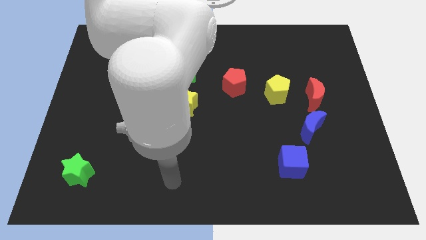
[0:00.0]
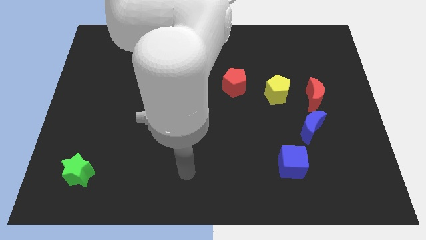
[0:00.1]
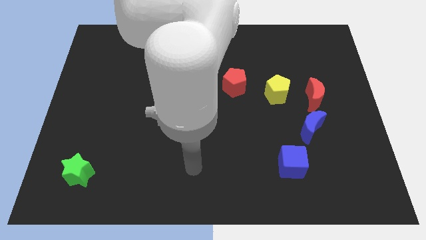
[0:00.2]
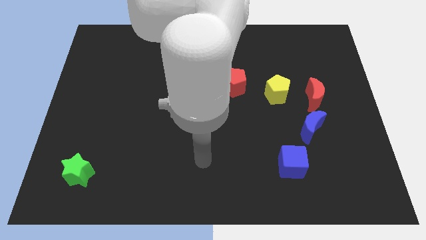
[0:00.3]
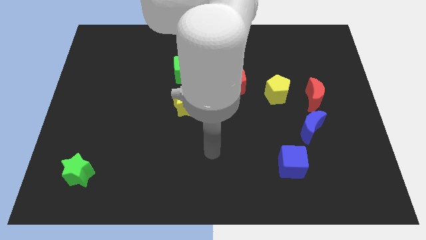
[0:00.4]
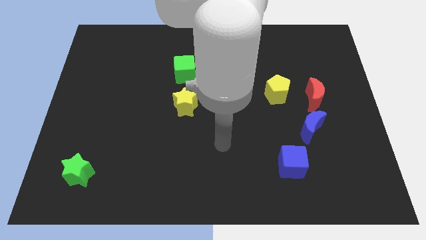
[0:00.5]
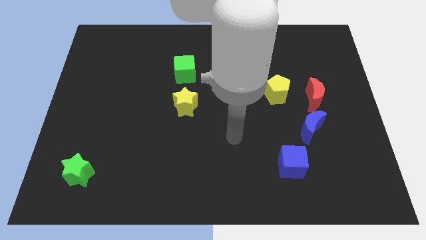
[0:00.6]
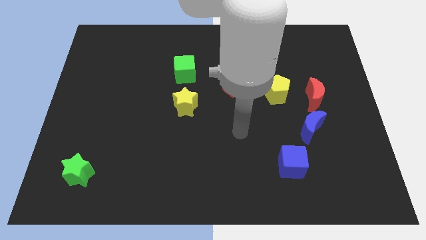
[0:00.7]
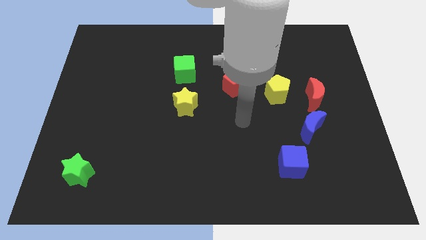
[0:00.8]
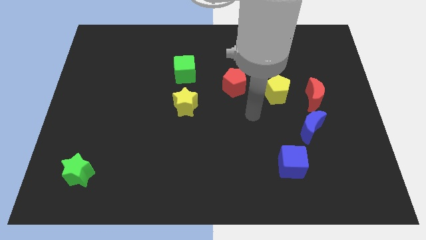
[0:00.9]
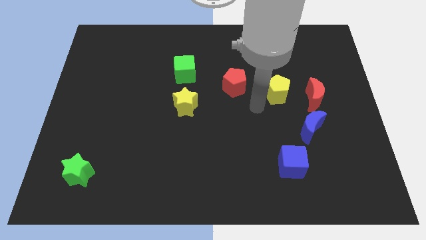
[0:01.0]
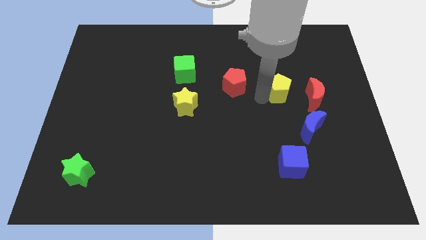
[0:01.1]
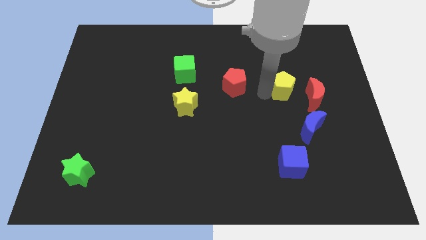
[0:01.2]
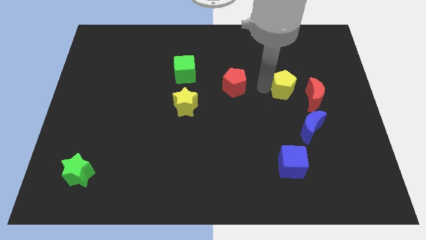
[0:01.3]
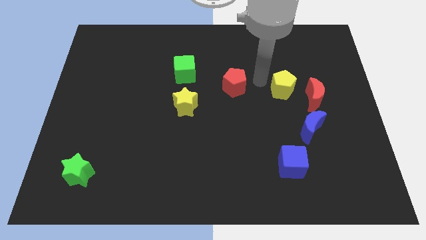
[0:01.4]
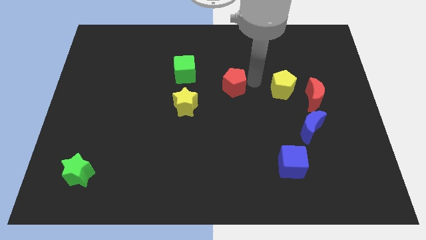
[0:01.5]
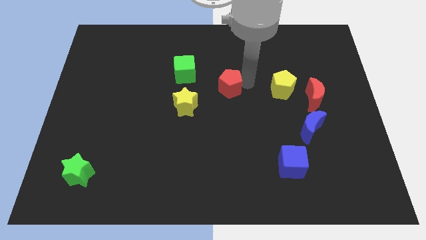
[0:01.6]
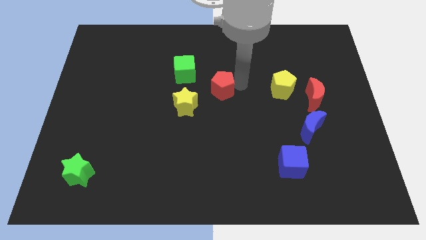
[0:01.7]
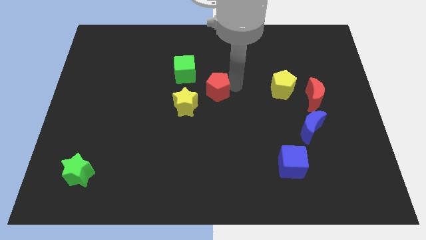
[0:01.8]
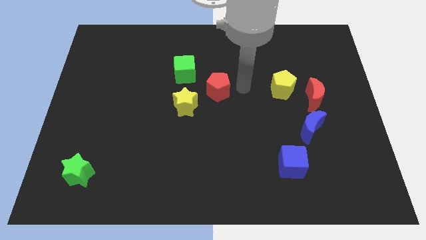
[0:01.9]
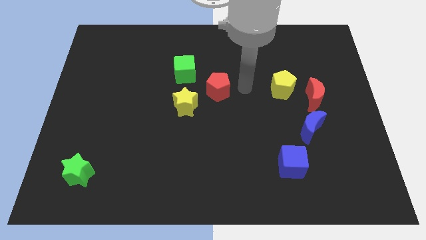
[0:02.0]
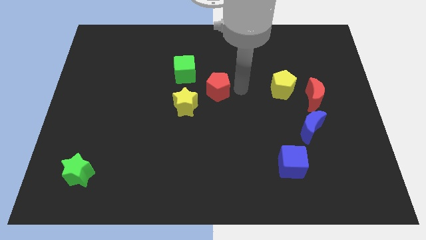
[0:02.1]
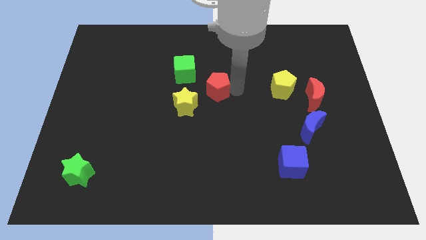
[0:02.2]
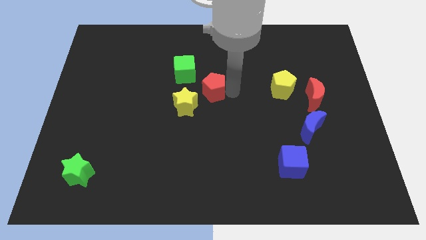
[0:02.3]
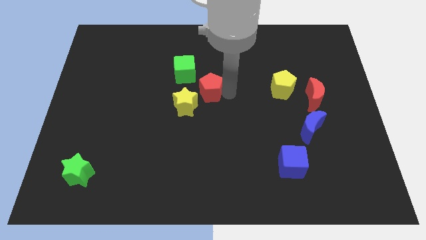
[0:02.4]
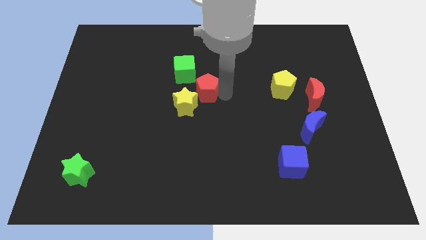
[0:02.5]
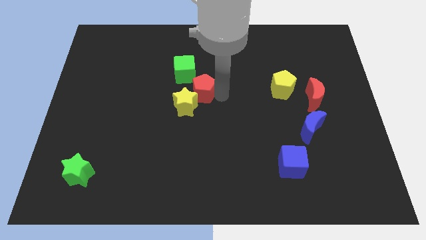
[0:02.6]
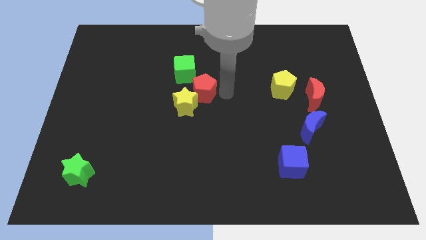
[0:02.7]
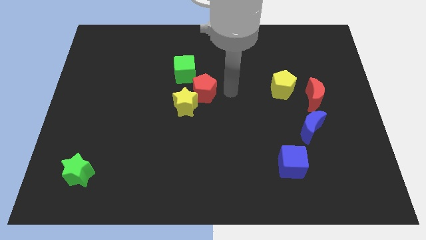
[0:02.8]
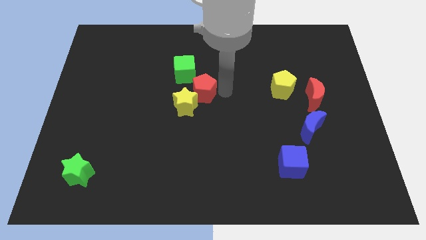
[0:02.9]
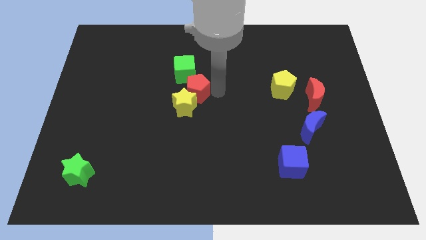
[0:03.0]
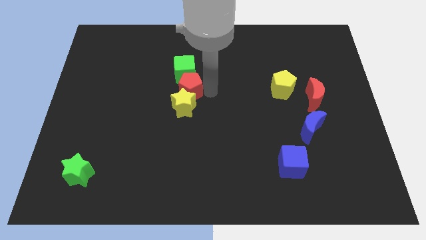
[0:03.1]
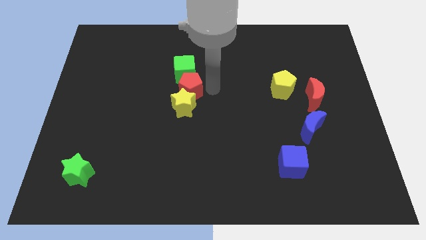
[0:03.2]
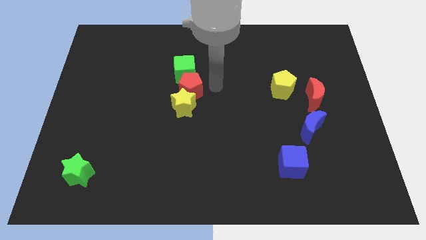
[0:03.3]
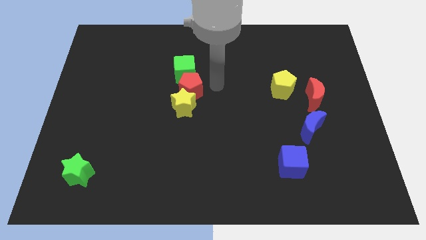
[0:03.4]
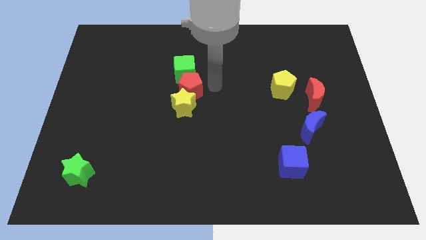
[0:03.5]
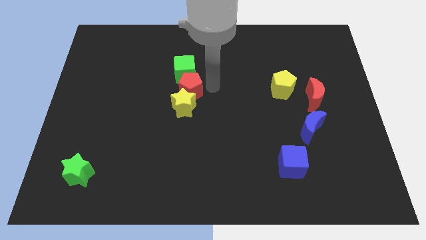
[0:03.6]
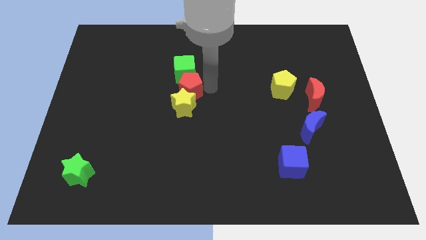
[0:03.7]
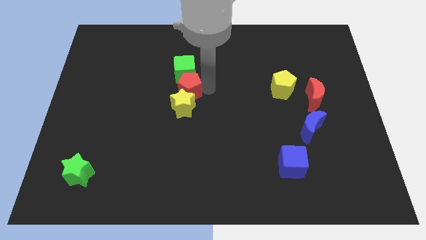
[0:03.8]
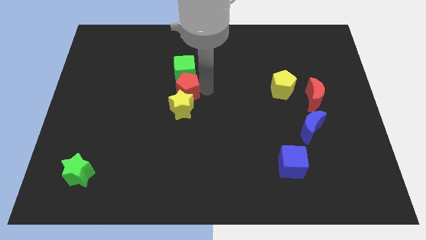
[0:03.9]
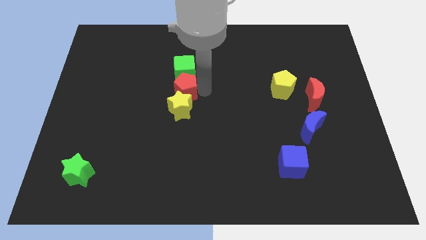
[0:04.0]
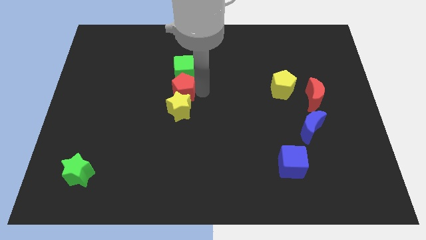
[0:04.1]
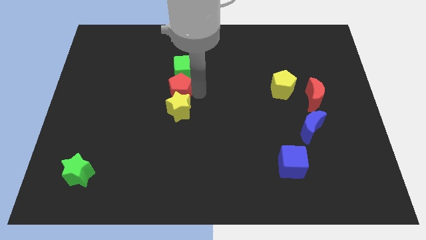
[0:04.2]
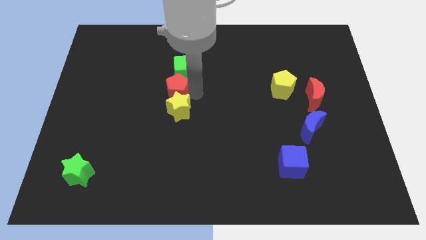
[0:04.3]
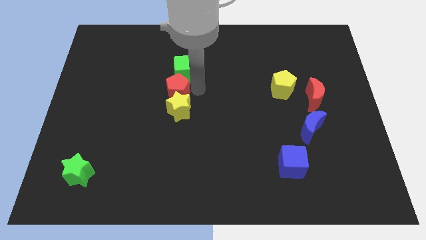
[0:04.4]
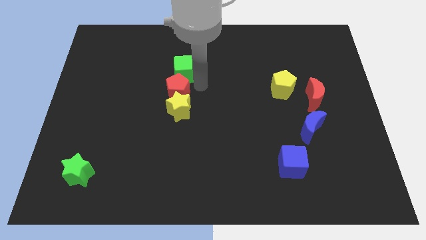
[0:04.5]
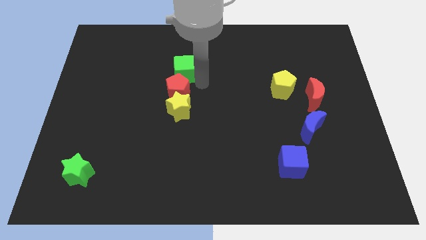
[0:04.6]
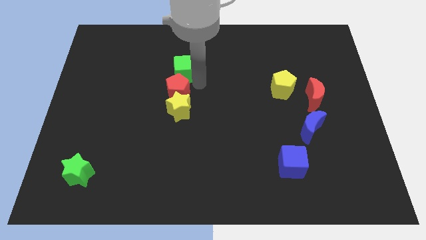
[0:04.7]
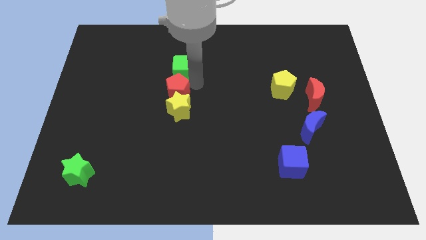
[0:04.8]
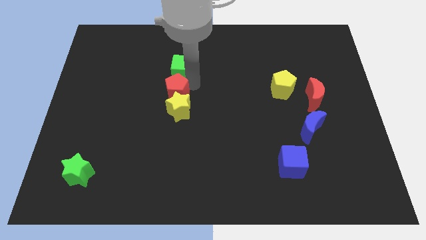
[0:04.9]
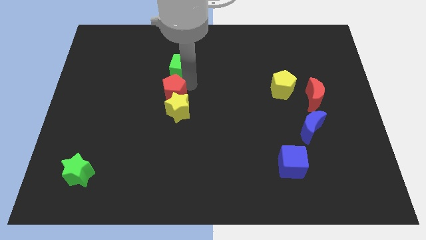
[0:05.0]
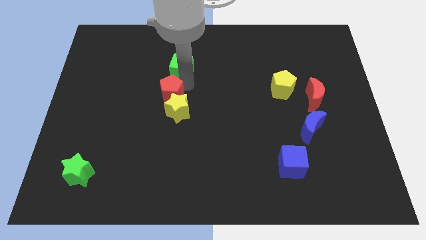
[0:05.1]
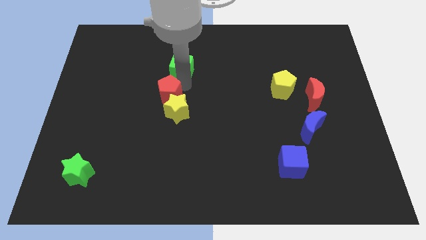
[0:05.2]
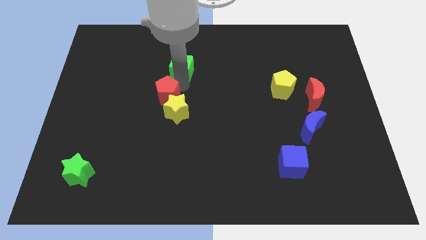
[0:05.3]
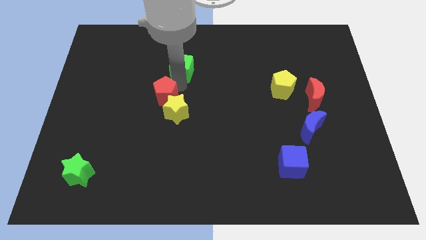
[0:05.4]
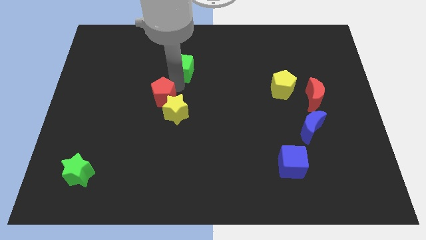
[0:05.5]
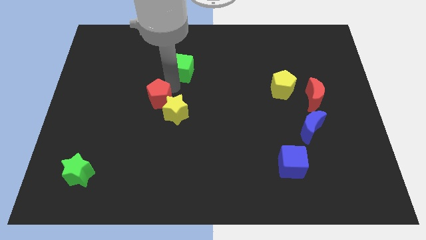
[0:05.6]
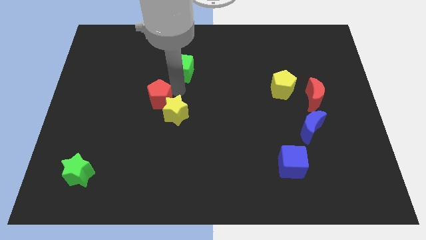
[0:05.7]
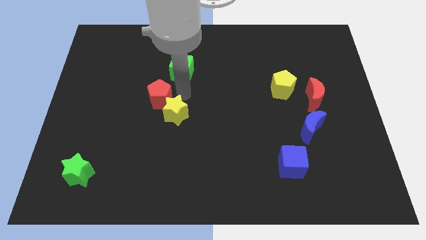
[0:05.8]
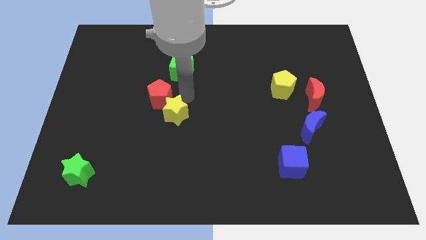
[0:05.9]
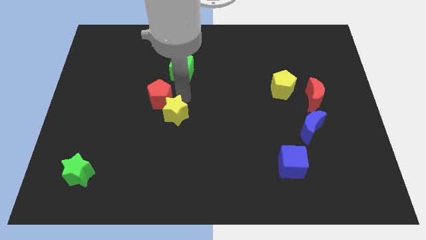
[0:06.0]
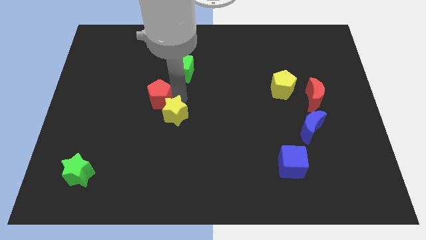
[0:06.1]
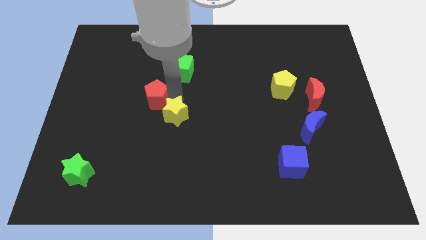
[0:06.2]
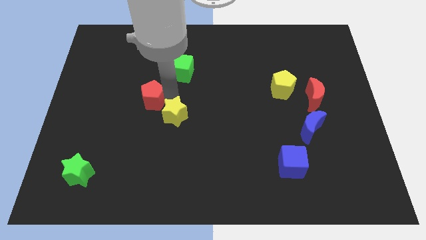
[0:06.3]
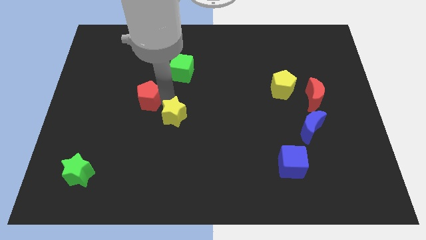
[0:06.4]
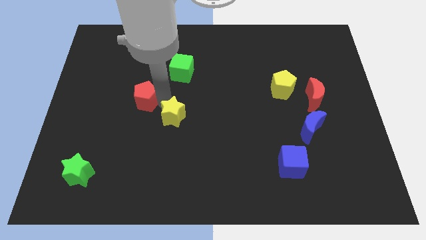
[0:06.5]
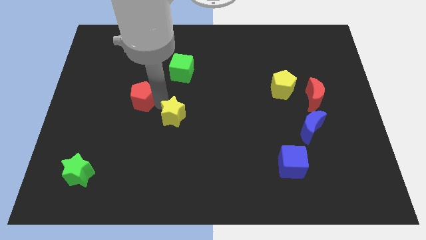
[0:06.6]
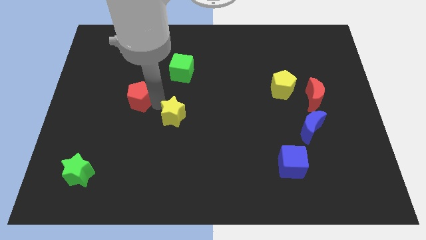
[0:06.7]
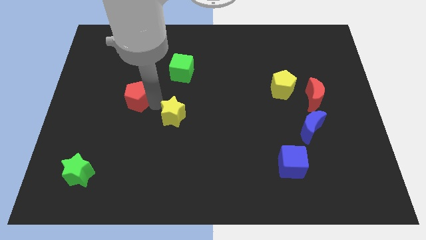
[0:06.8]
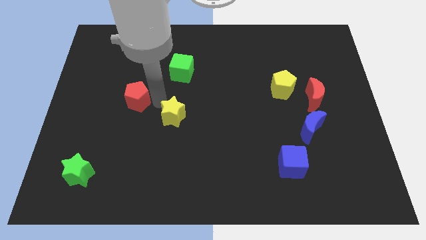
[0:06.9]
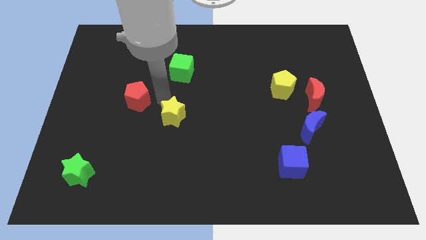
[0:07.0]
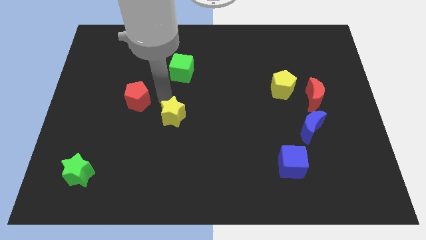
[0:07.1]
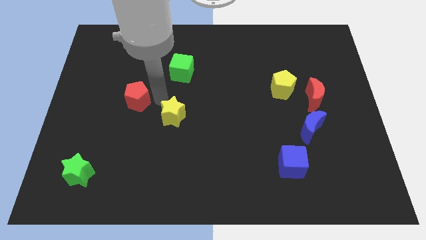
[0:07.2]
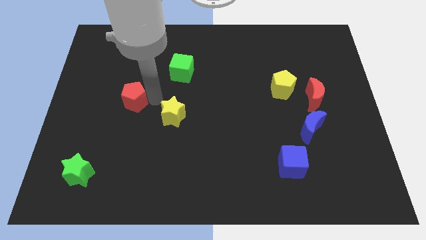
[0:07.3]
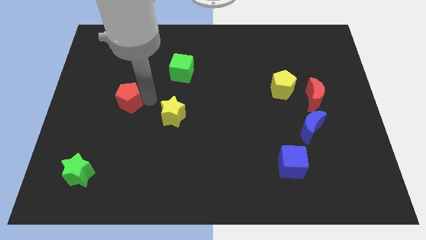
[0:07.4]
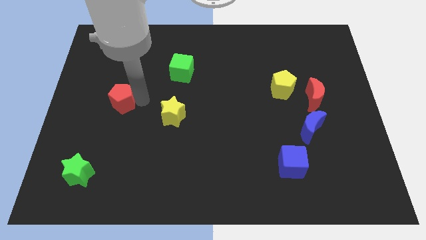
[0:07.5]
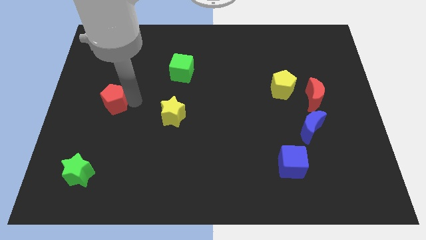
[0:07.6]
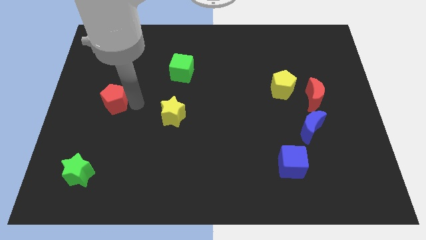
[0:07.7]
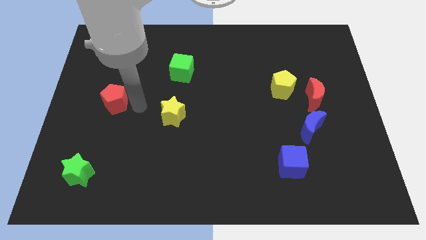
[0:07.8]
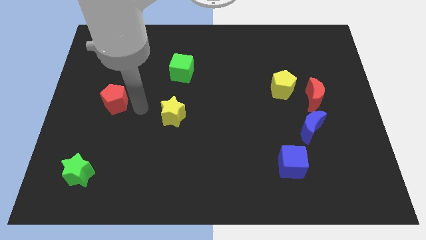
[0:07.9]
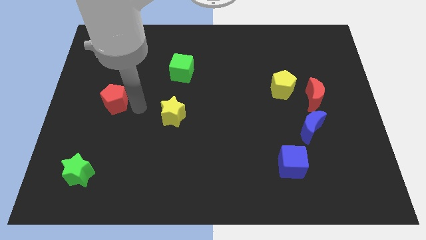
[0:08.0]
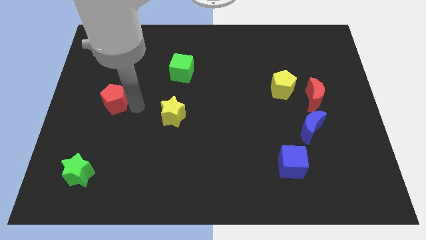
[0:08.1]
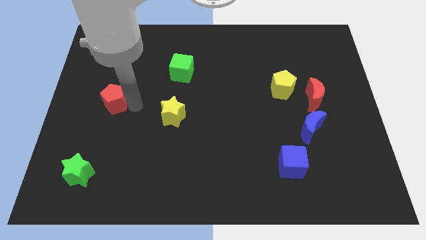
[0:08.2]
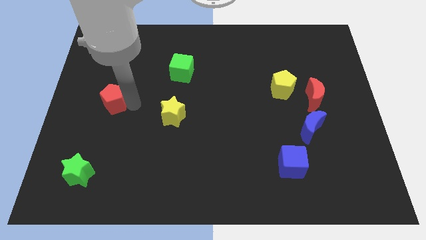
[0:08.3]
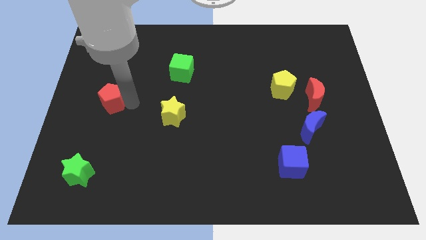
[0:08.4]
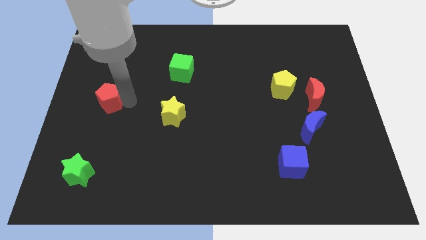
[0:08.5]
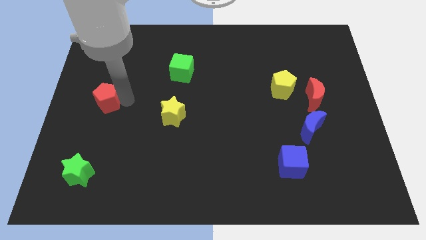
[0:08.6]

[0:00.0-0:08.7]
push the red pentagon to the left side of the board
